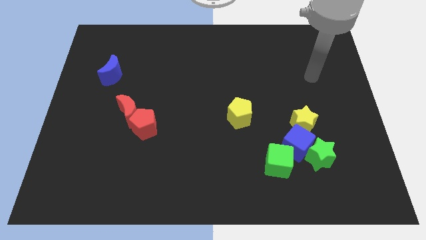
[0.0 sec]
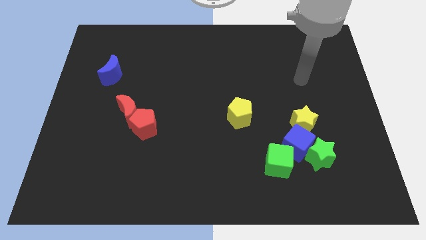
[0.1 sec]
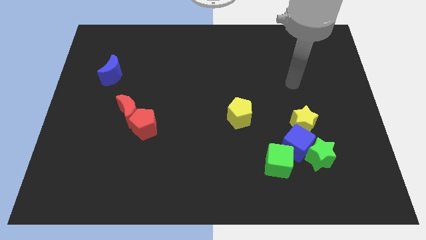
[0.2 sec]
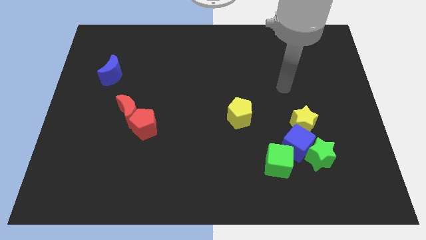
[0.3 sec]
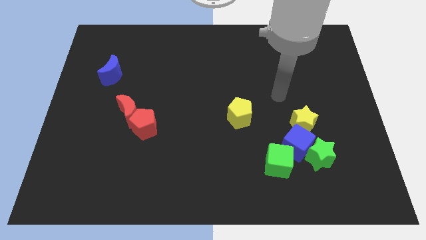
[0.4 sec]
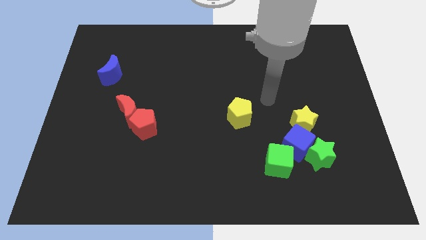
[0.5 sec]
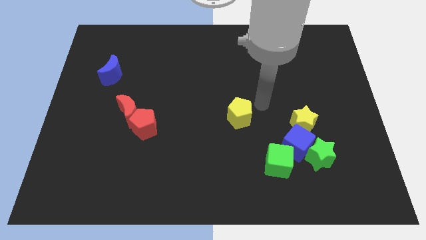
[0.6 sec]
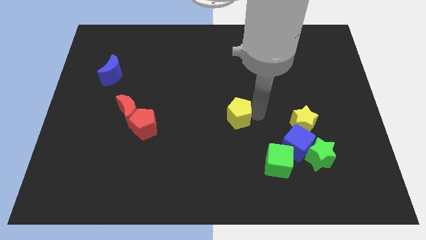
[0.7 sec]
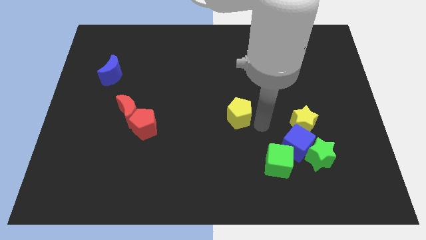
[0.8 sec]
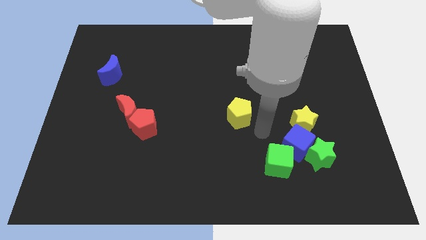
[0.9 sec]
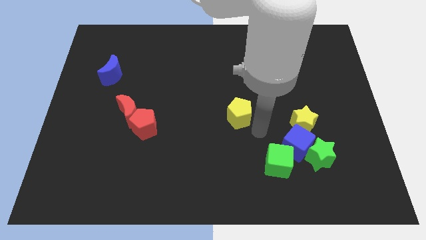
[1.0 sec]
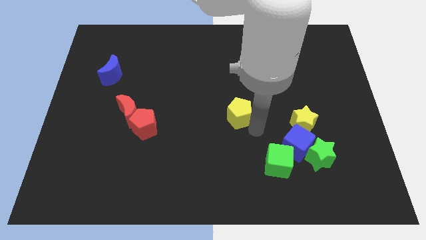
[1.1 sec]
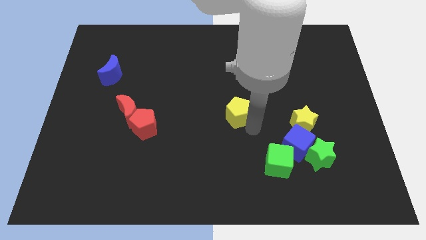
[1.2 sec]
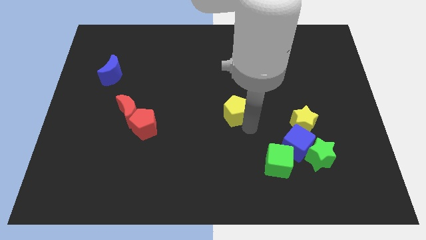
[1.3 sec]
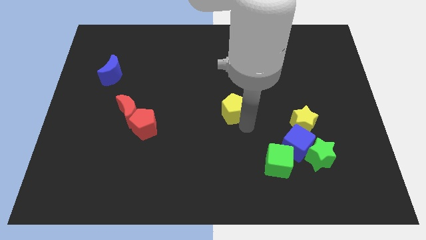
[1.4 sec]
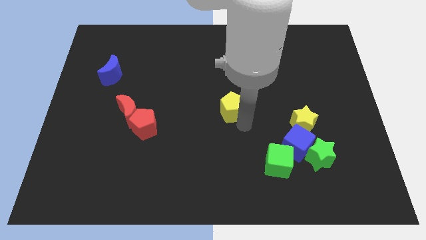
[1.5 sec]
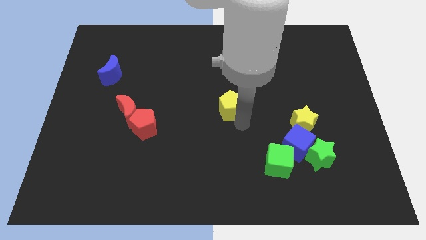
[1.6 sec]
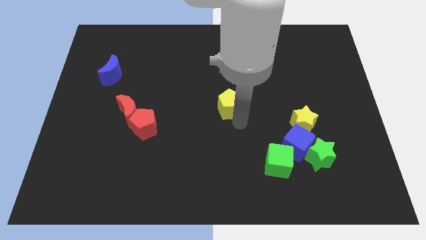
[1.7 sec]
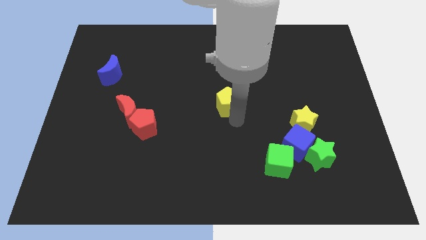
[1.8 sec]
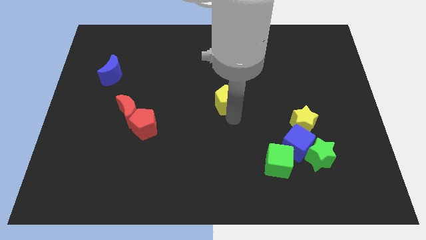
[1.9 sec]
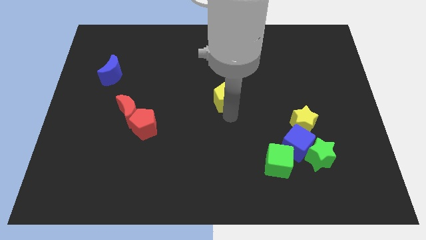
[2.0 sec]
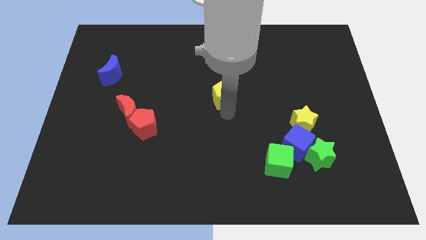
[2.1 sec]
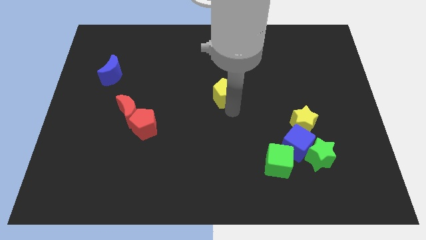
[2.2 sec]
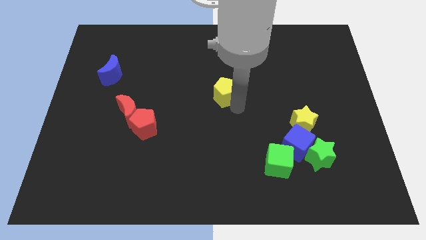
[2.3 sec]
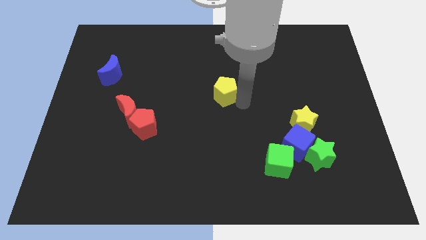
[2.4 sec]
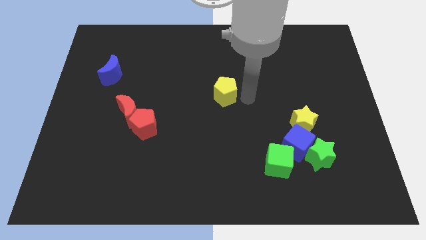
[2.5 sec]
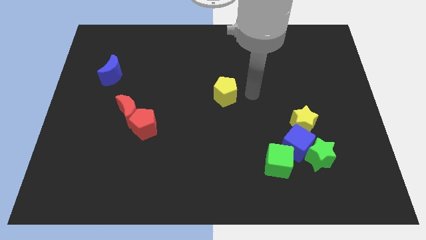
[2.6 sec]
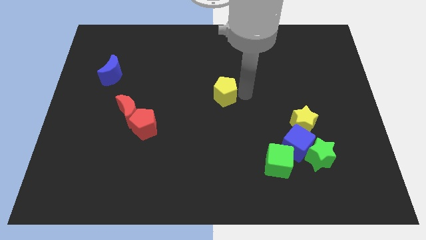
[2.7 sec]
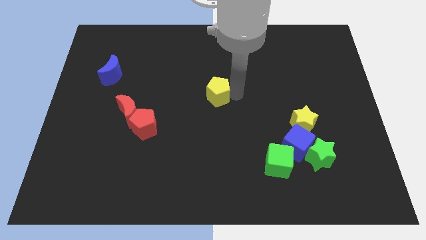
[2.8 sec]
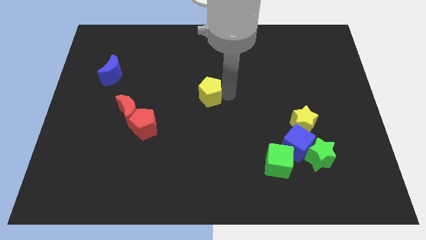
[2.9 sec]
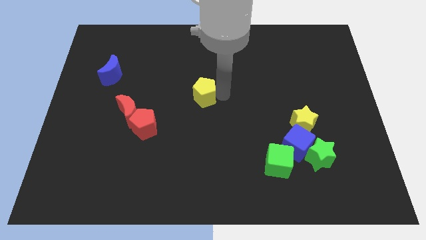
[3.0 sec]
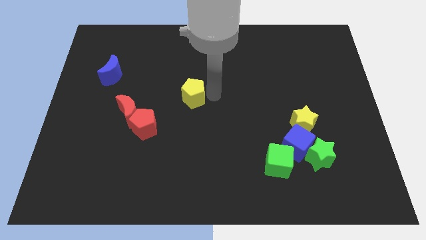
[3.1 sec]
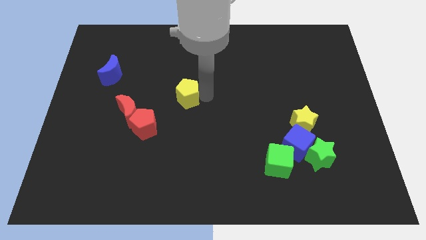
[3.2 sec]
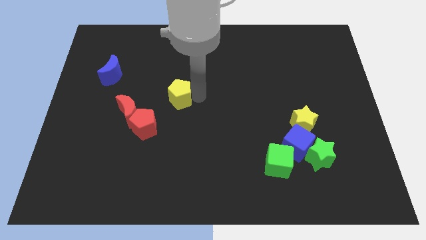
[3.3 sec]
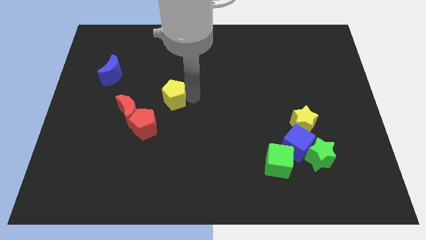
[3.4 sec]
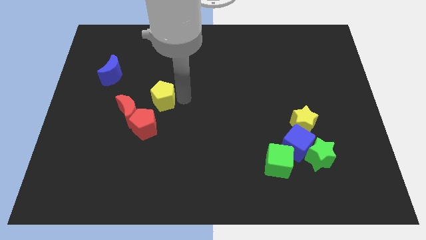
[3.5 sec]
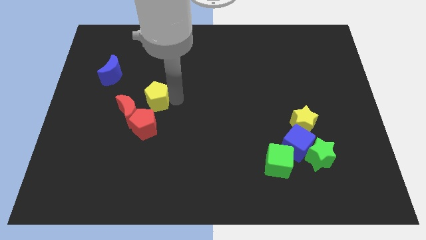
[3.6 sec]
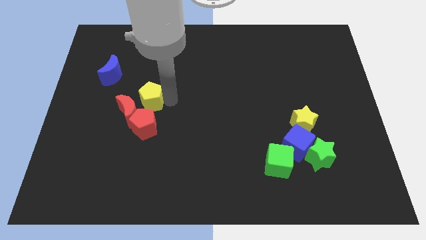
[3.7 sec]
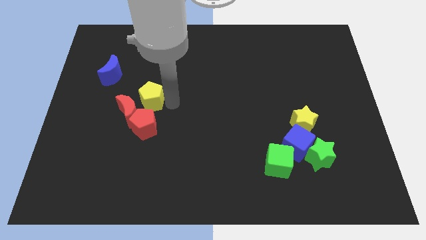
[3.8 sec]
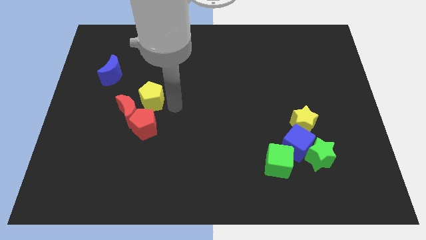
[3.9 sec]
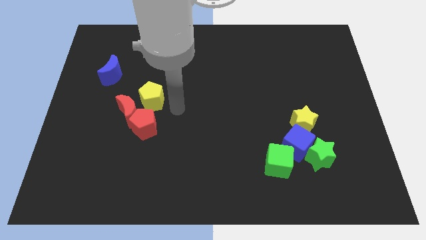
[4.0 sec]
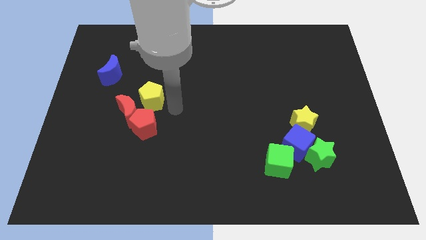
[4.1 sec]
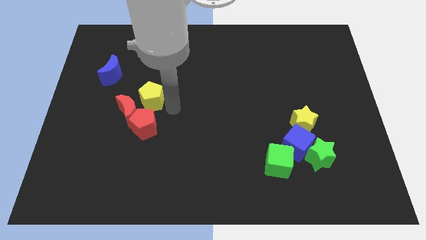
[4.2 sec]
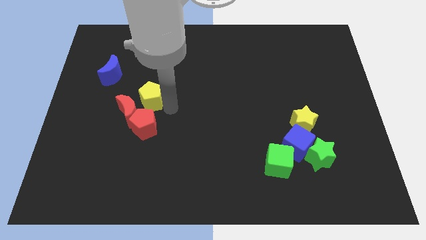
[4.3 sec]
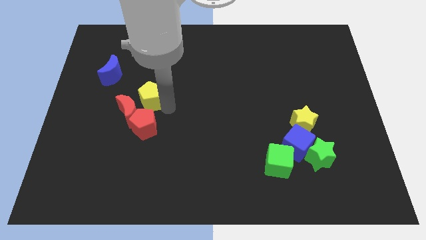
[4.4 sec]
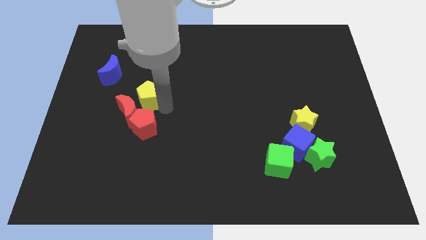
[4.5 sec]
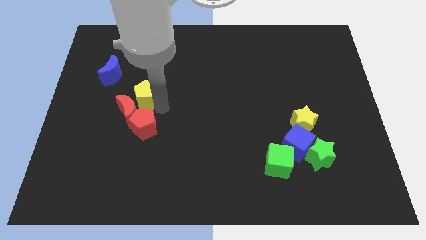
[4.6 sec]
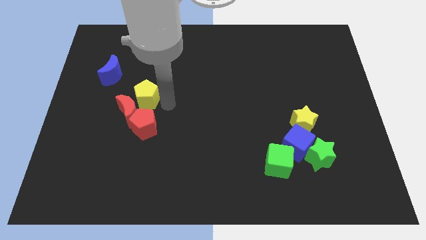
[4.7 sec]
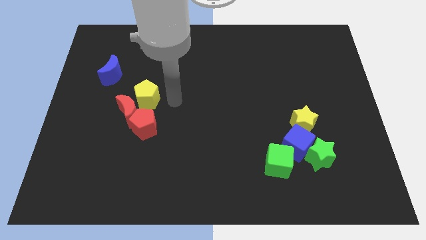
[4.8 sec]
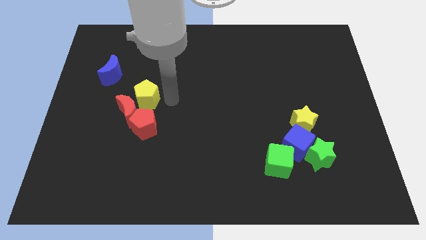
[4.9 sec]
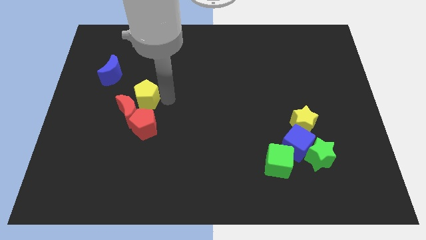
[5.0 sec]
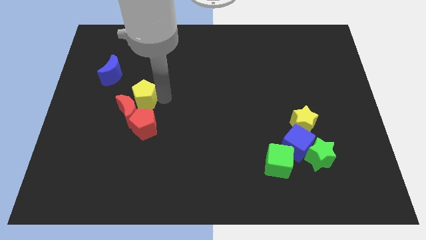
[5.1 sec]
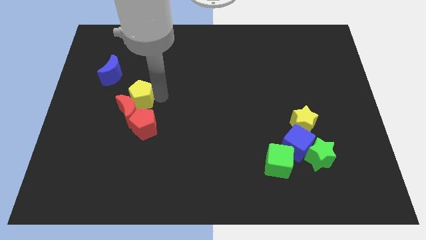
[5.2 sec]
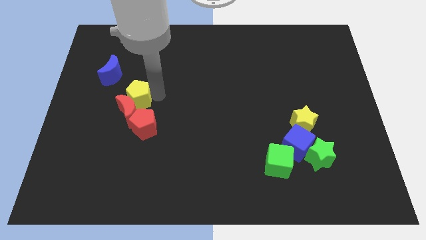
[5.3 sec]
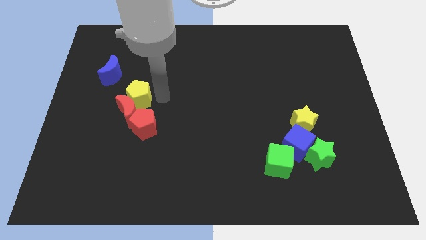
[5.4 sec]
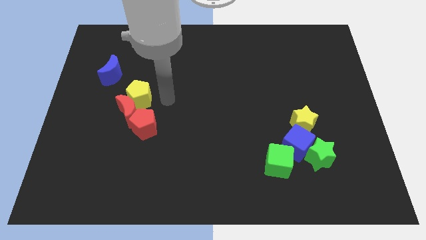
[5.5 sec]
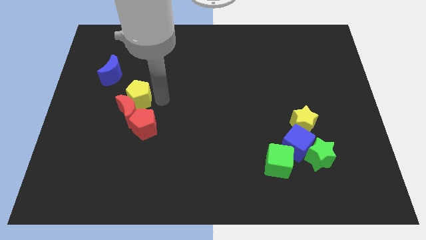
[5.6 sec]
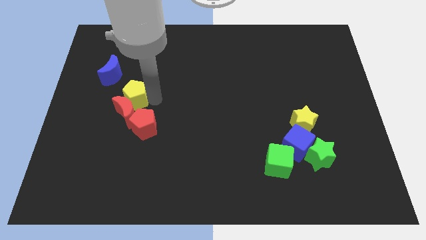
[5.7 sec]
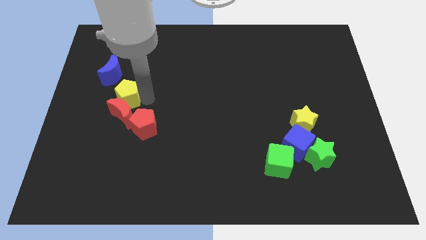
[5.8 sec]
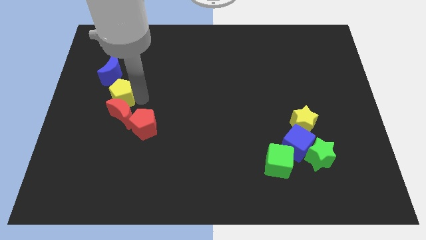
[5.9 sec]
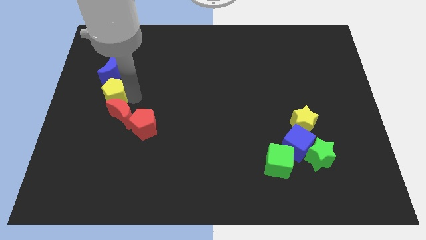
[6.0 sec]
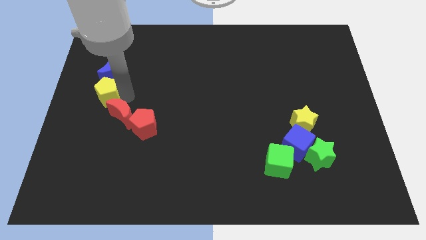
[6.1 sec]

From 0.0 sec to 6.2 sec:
move the yellow pentagon to the center left
